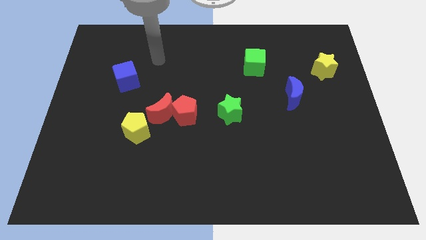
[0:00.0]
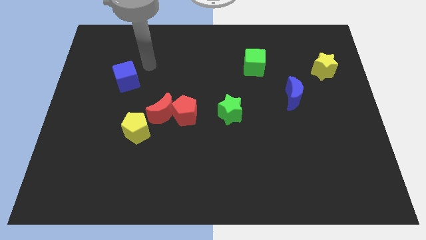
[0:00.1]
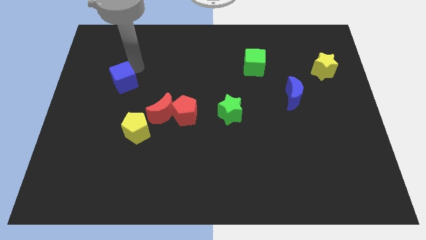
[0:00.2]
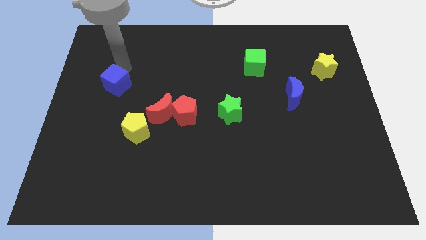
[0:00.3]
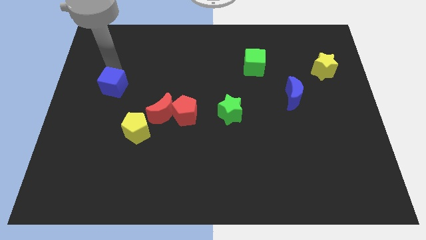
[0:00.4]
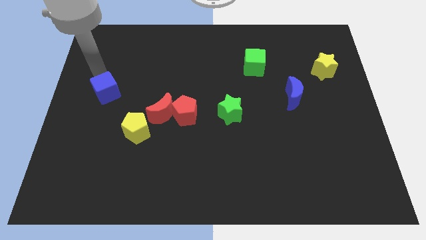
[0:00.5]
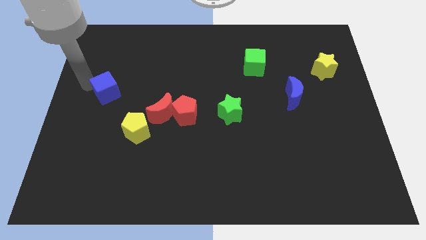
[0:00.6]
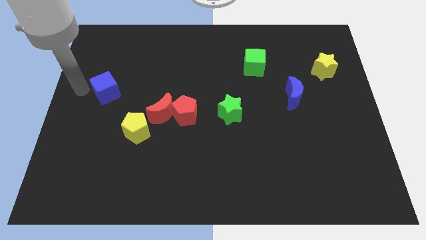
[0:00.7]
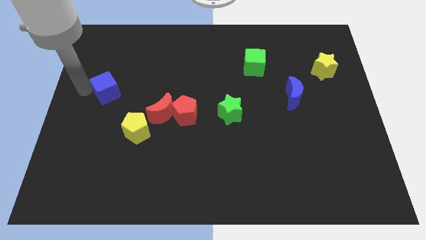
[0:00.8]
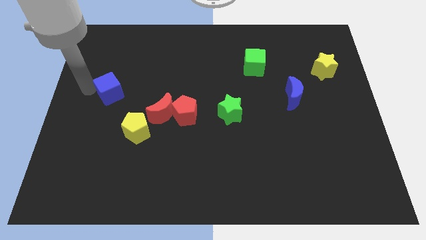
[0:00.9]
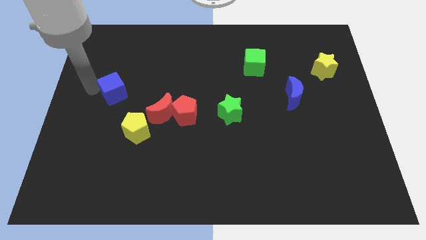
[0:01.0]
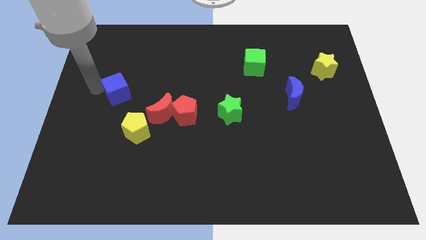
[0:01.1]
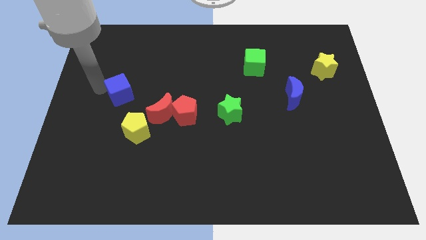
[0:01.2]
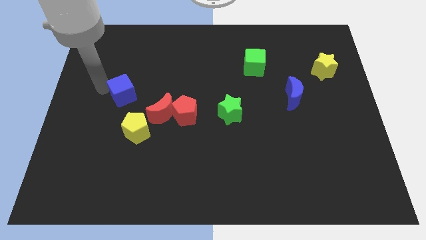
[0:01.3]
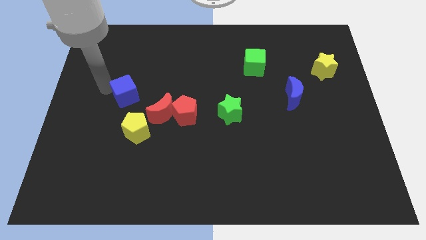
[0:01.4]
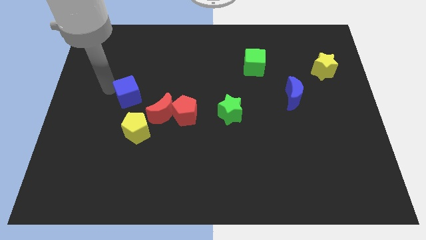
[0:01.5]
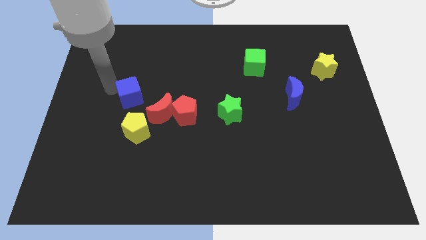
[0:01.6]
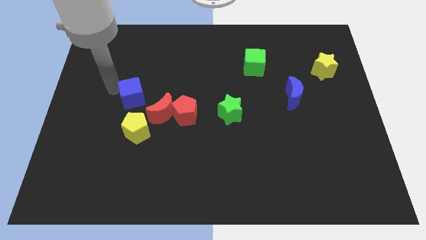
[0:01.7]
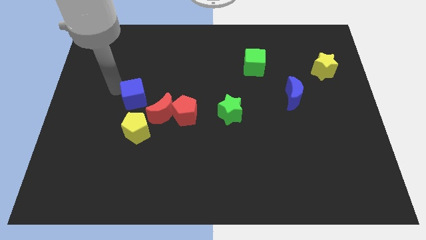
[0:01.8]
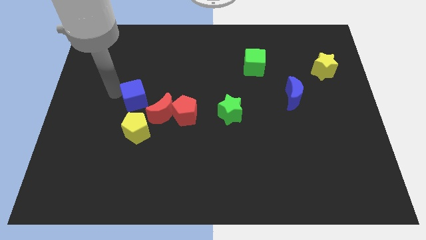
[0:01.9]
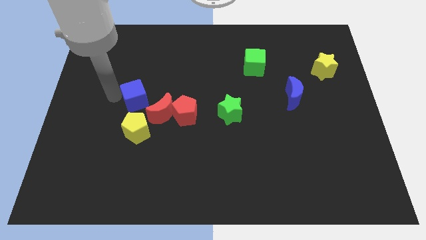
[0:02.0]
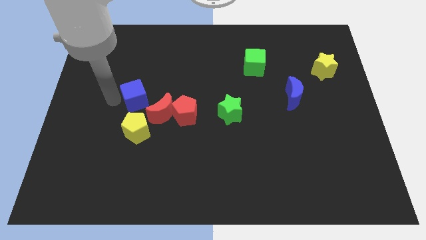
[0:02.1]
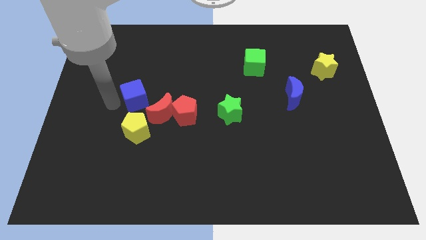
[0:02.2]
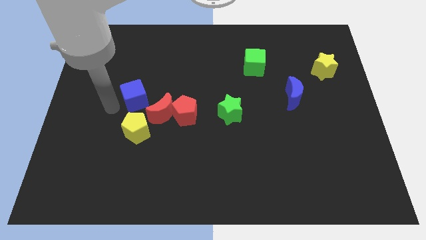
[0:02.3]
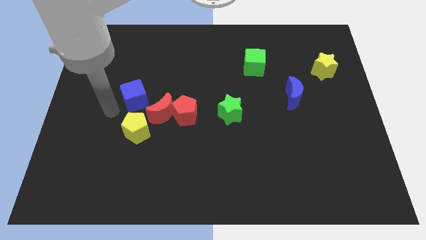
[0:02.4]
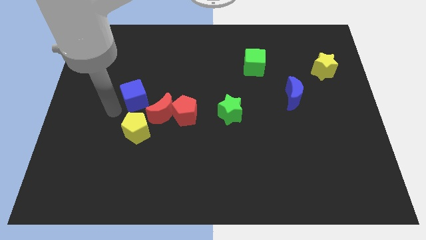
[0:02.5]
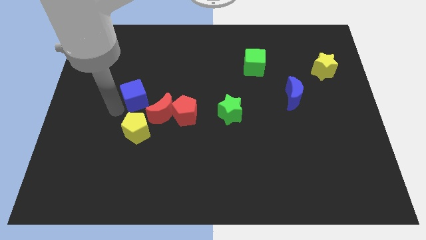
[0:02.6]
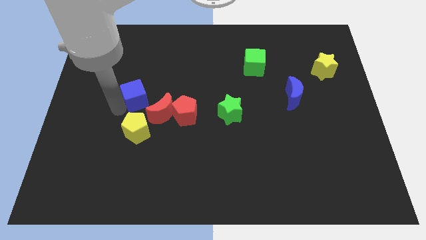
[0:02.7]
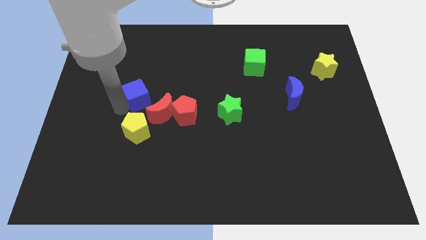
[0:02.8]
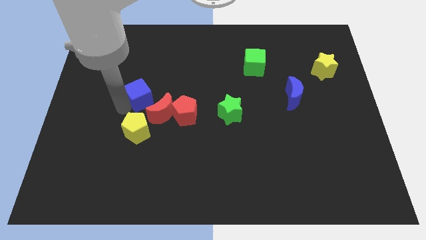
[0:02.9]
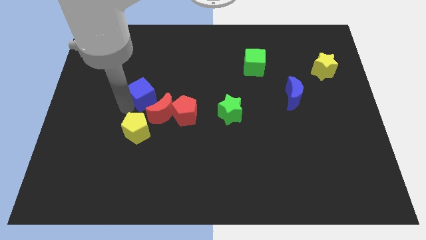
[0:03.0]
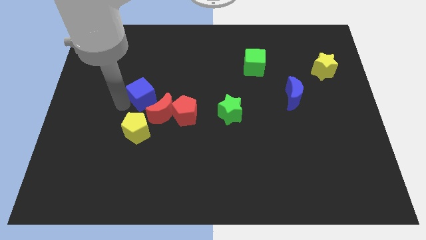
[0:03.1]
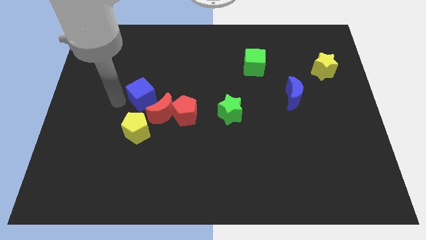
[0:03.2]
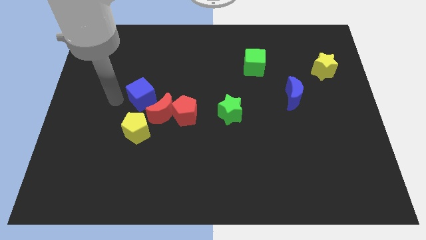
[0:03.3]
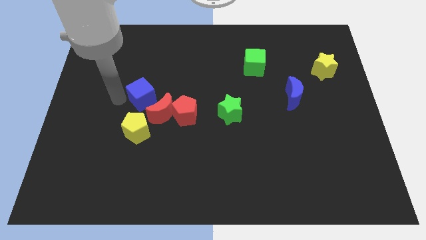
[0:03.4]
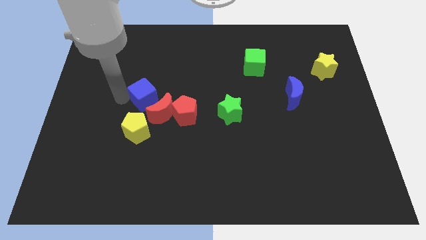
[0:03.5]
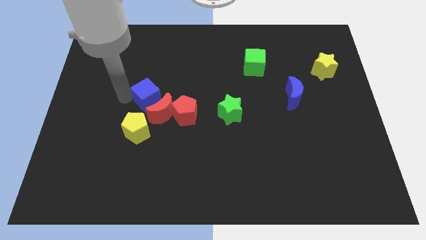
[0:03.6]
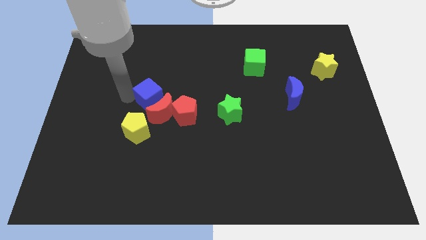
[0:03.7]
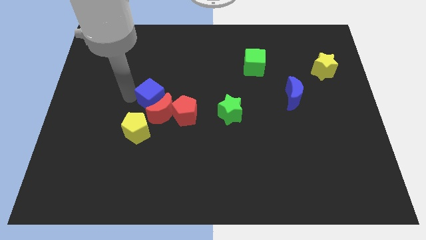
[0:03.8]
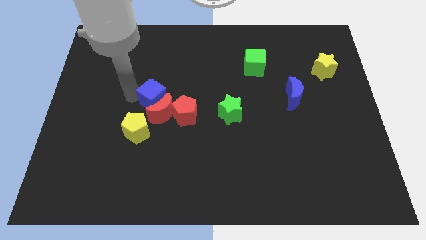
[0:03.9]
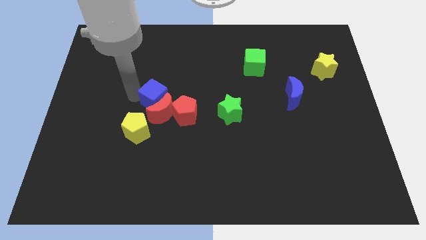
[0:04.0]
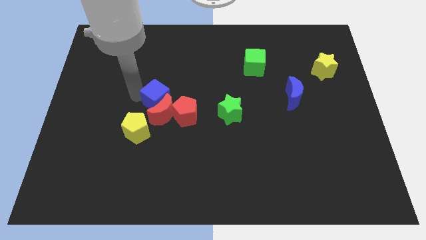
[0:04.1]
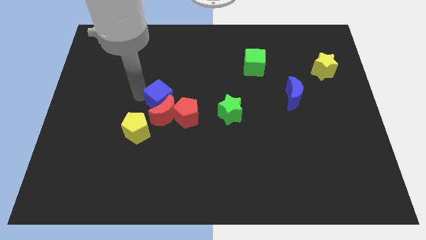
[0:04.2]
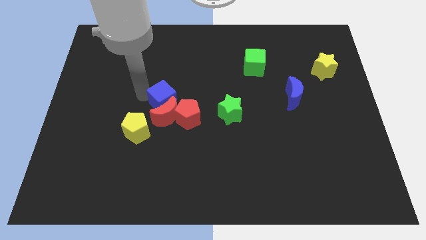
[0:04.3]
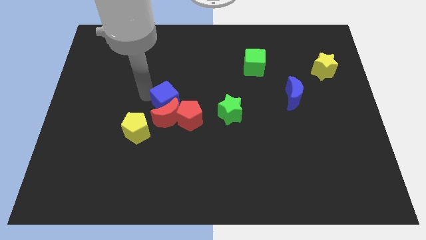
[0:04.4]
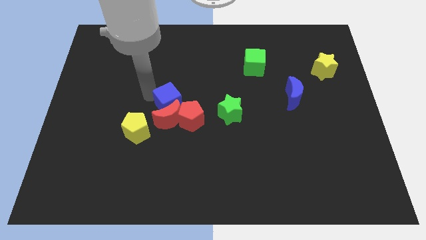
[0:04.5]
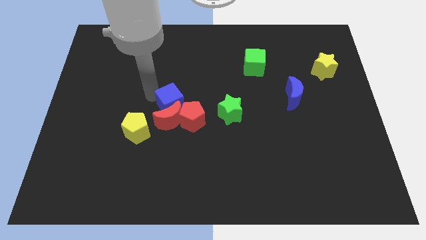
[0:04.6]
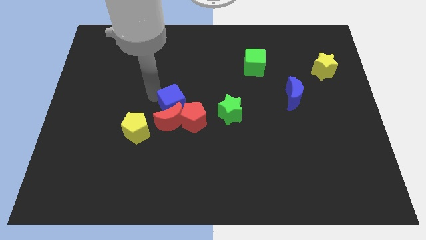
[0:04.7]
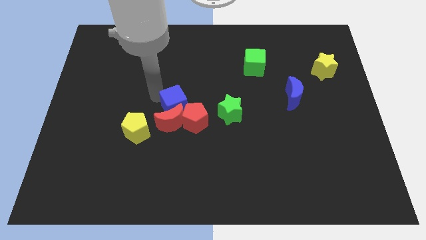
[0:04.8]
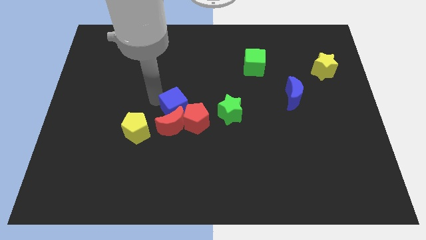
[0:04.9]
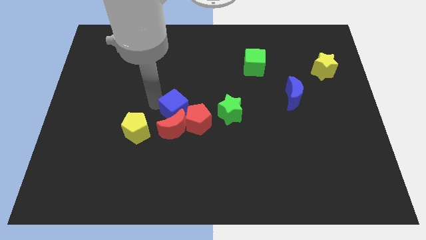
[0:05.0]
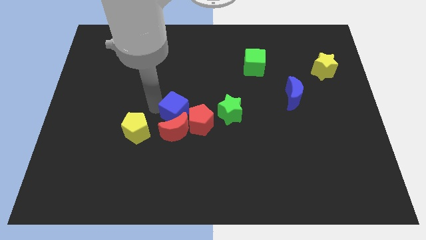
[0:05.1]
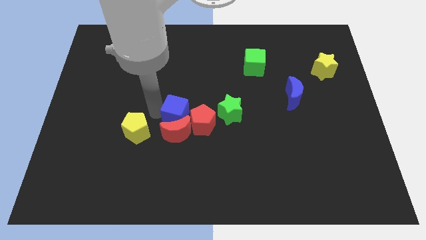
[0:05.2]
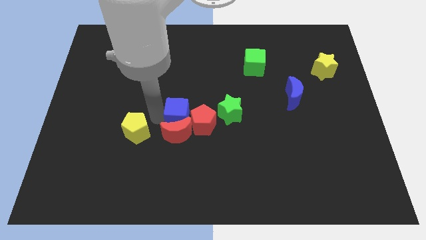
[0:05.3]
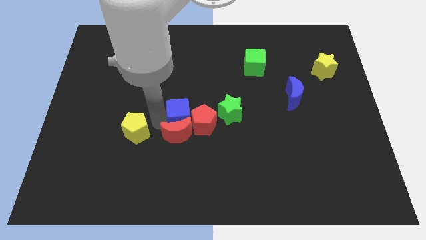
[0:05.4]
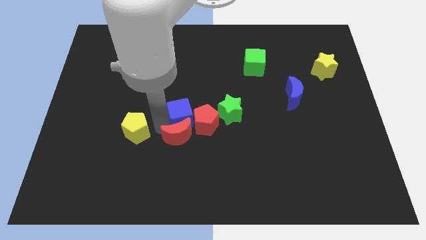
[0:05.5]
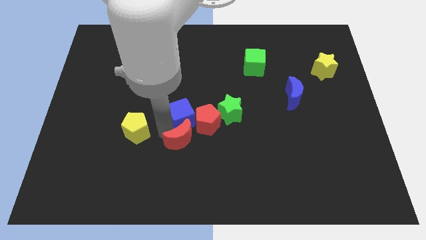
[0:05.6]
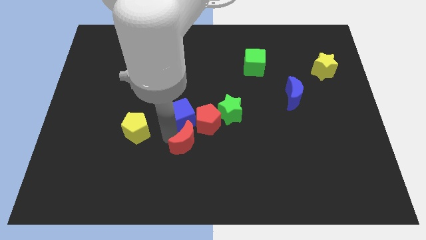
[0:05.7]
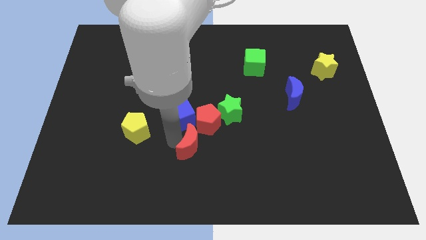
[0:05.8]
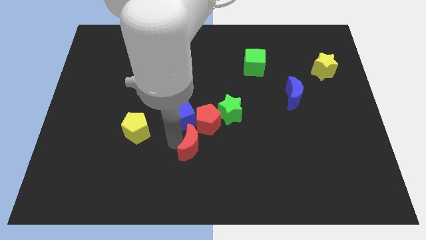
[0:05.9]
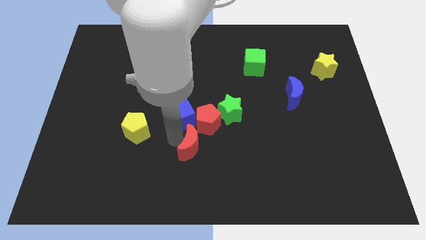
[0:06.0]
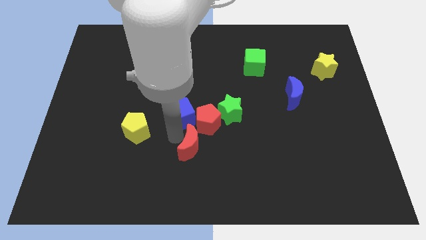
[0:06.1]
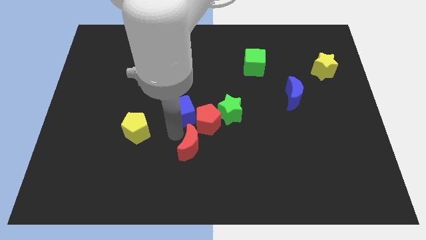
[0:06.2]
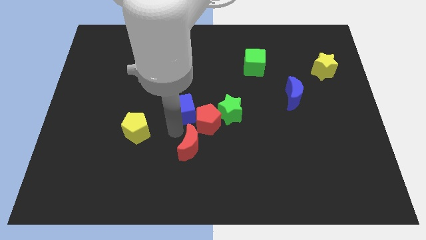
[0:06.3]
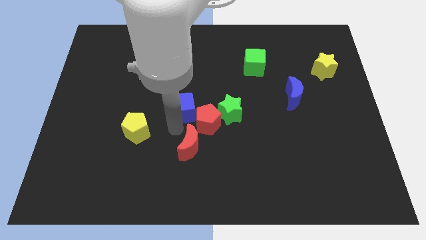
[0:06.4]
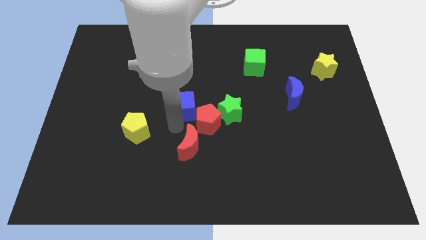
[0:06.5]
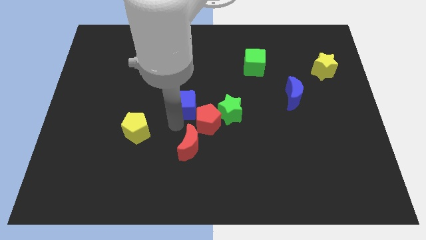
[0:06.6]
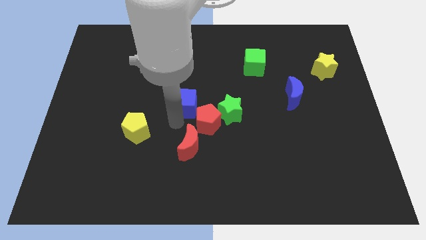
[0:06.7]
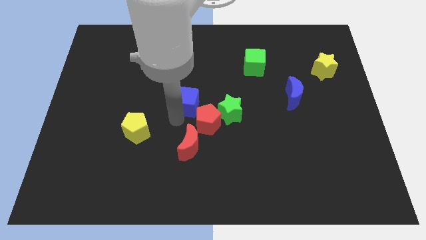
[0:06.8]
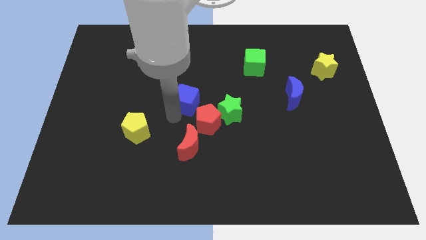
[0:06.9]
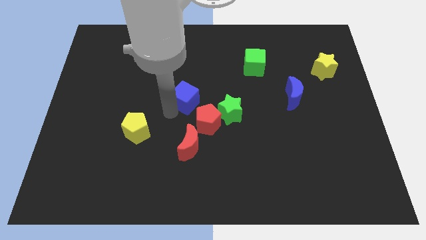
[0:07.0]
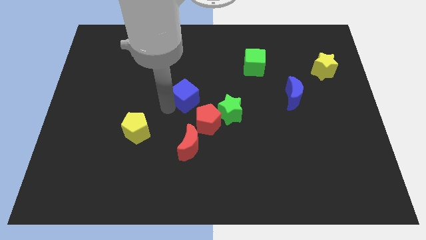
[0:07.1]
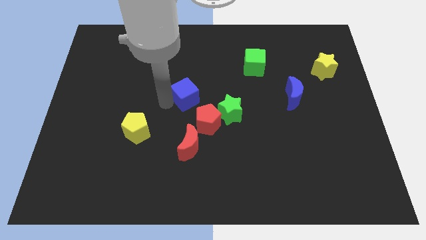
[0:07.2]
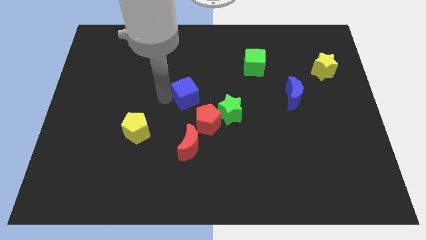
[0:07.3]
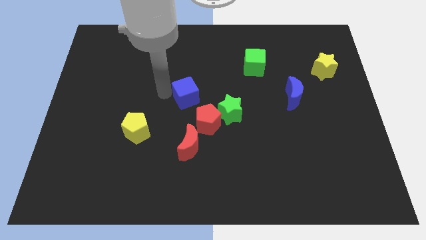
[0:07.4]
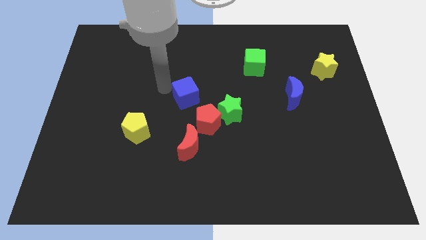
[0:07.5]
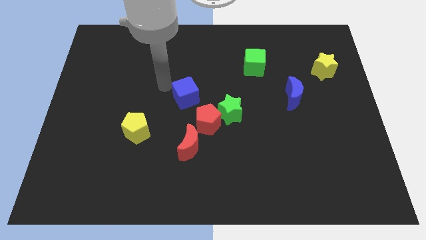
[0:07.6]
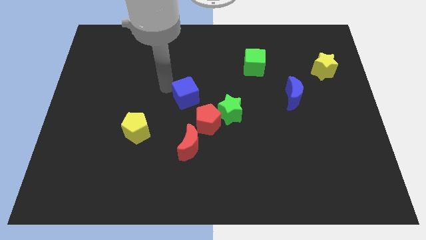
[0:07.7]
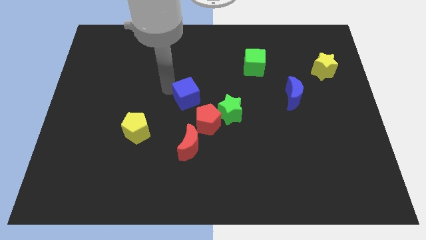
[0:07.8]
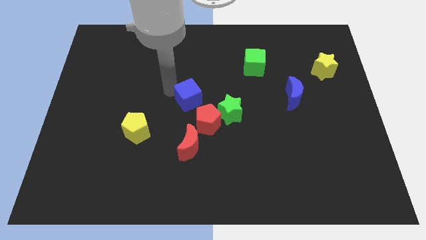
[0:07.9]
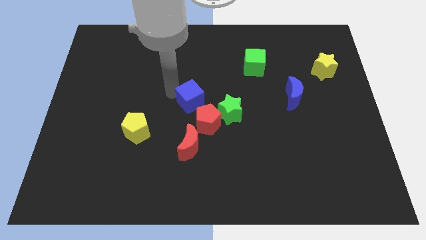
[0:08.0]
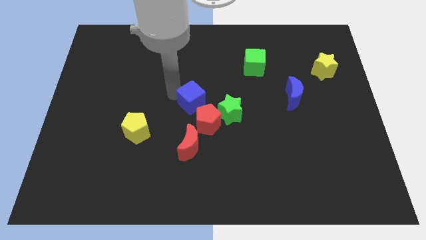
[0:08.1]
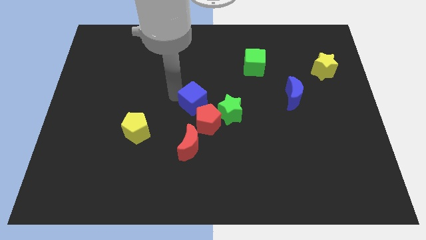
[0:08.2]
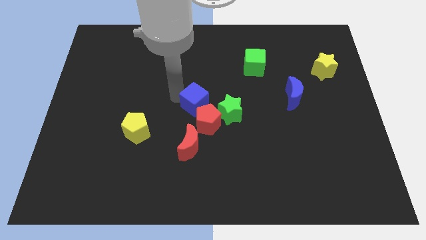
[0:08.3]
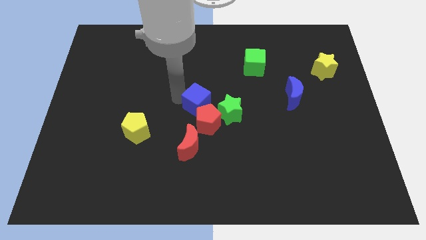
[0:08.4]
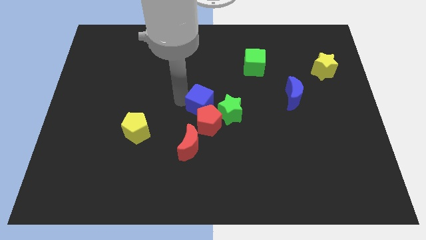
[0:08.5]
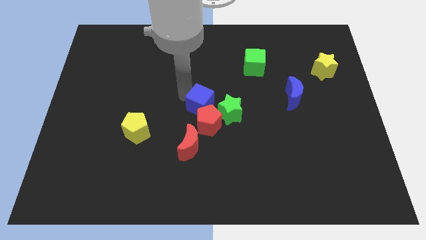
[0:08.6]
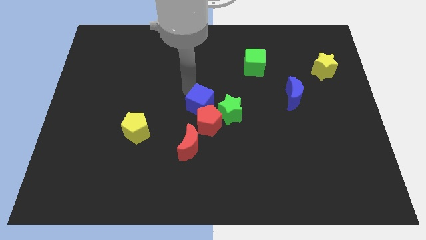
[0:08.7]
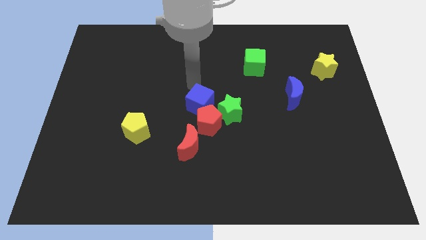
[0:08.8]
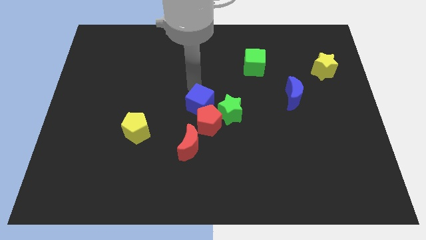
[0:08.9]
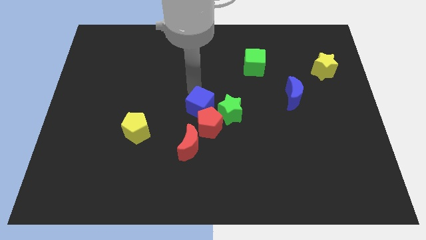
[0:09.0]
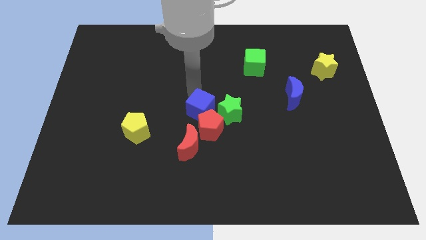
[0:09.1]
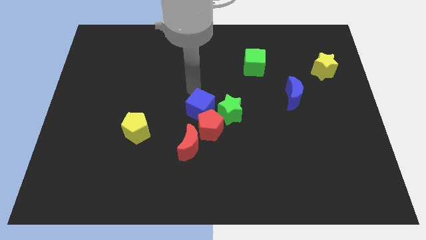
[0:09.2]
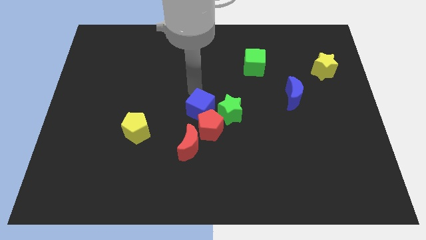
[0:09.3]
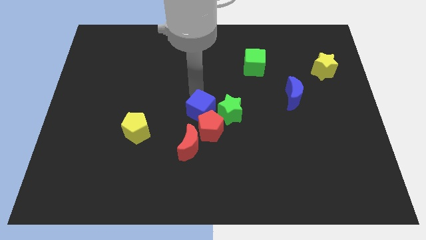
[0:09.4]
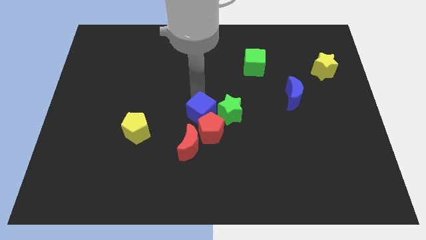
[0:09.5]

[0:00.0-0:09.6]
slide the blue cube to the bottom left side of the green star
